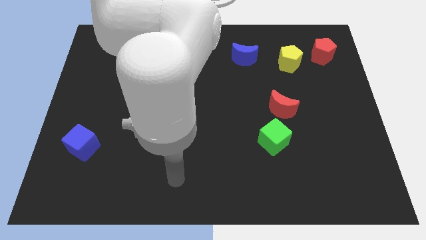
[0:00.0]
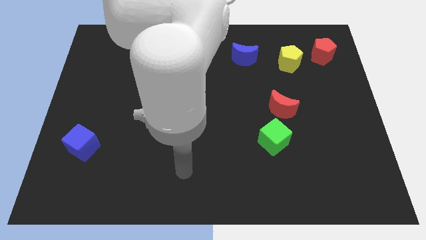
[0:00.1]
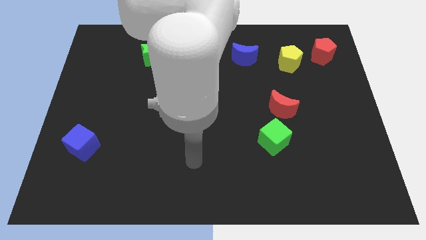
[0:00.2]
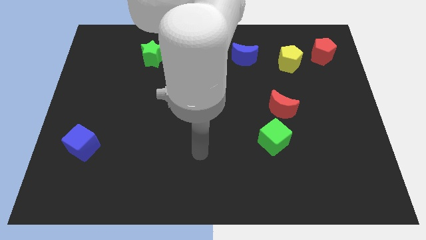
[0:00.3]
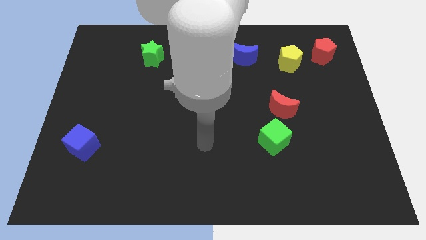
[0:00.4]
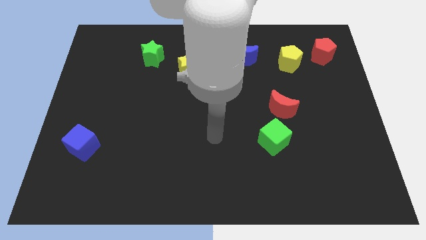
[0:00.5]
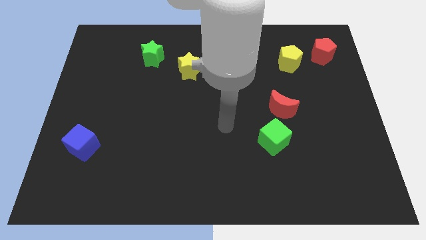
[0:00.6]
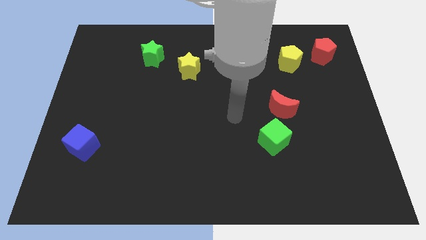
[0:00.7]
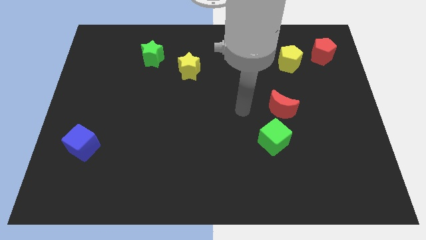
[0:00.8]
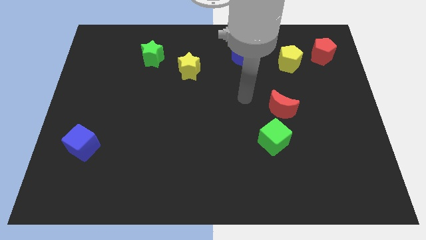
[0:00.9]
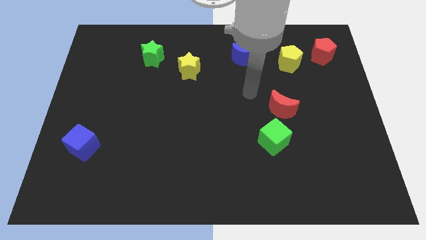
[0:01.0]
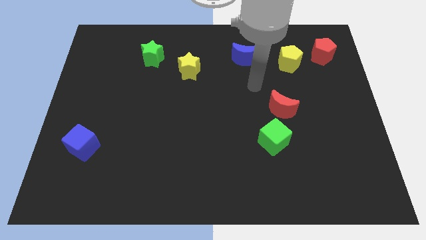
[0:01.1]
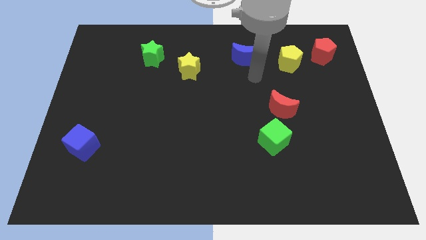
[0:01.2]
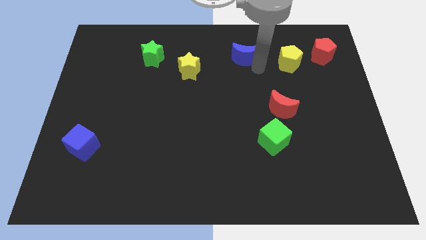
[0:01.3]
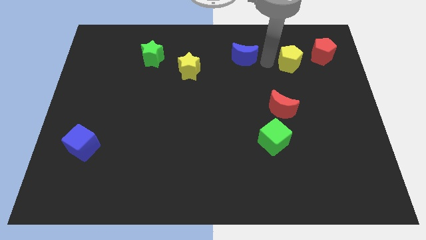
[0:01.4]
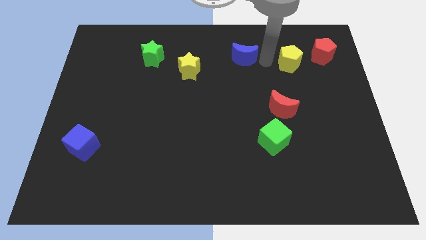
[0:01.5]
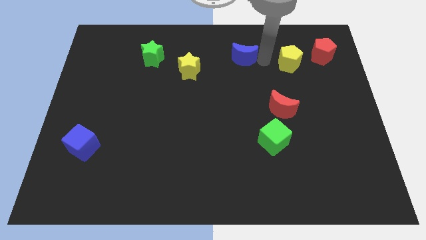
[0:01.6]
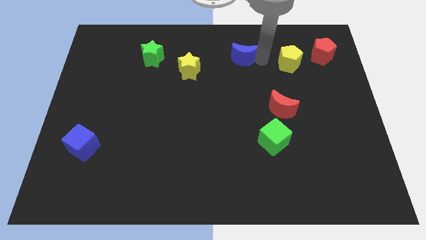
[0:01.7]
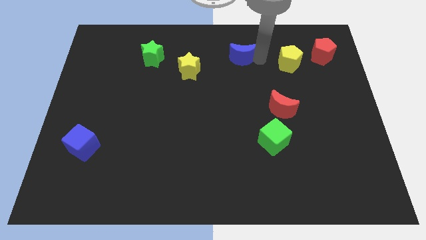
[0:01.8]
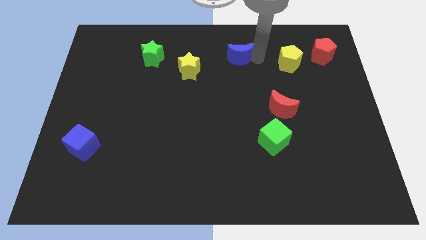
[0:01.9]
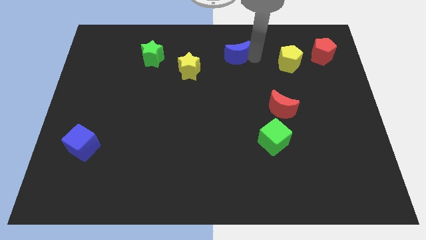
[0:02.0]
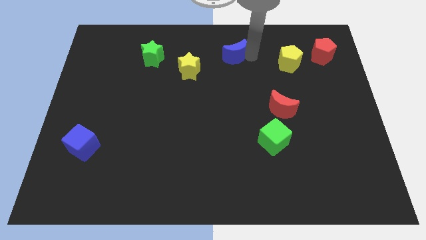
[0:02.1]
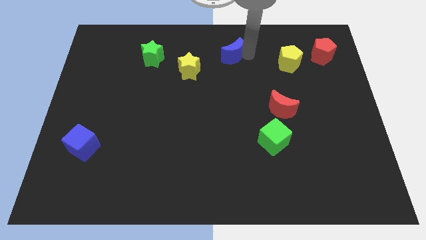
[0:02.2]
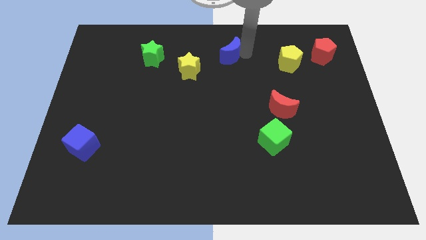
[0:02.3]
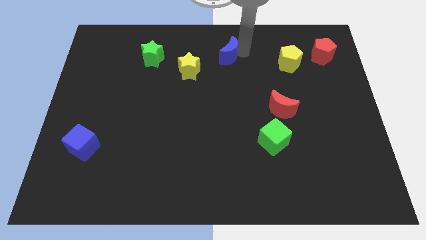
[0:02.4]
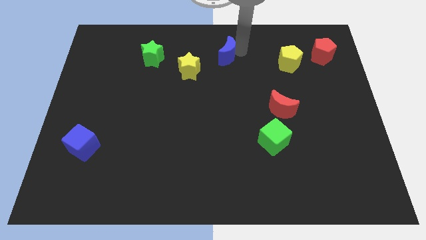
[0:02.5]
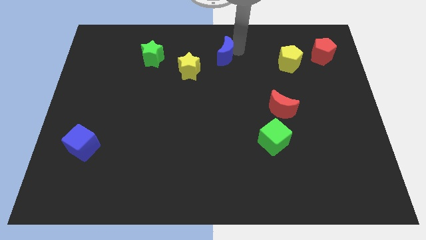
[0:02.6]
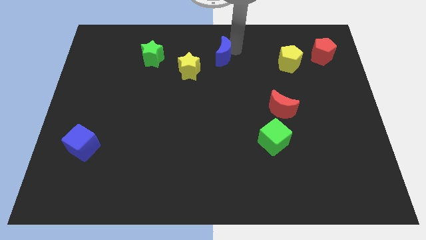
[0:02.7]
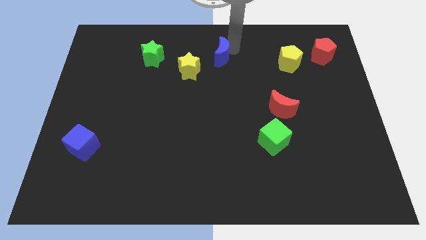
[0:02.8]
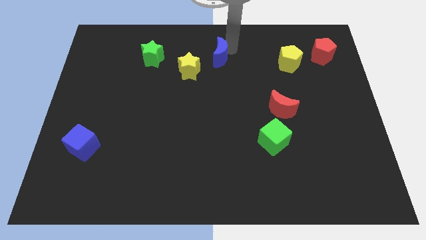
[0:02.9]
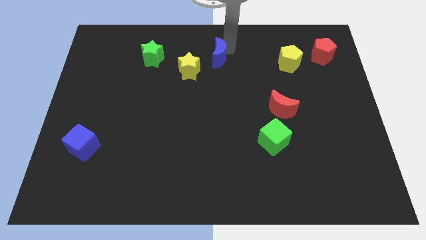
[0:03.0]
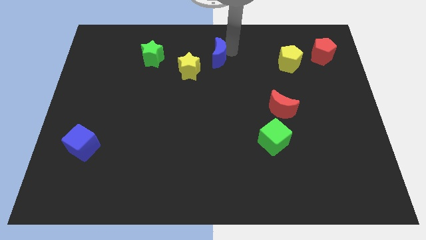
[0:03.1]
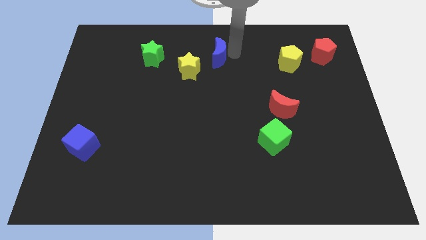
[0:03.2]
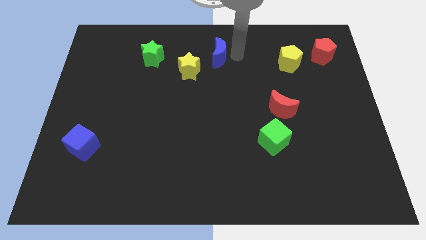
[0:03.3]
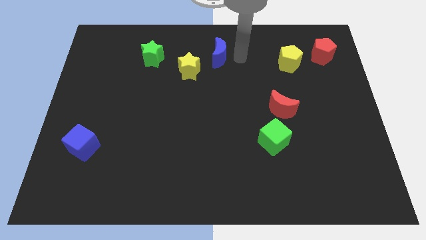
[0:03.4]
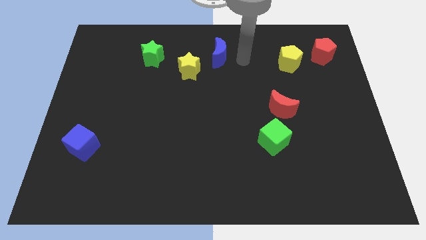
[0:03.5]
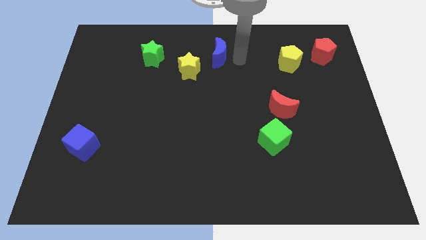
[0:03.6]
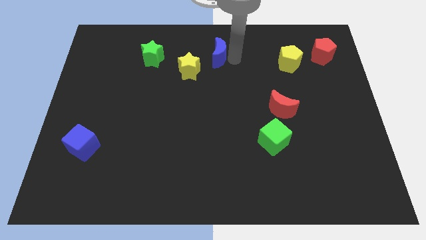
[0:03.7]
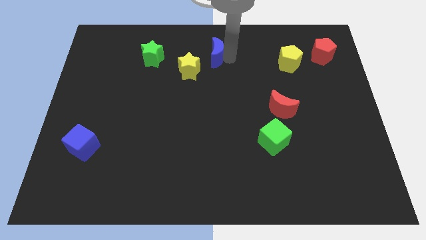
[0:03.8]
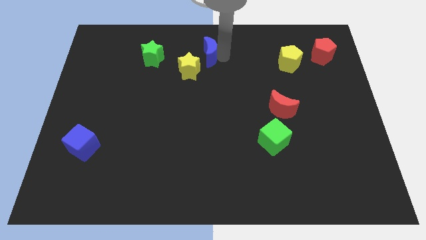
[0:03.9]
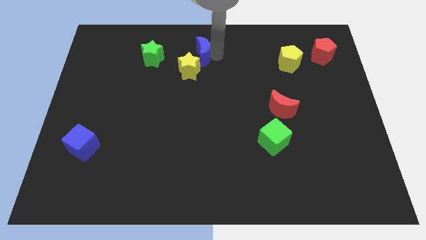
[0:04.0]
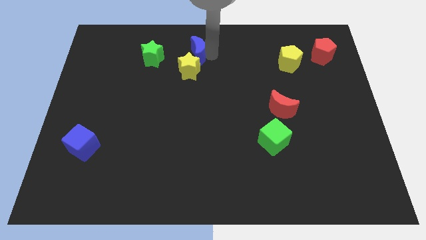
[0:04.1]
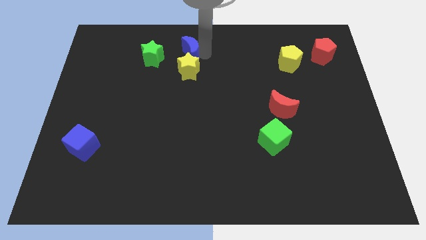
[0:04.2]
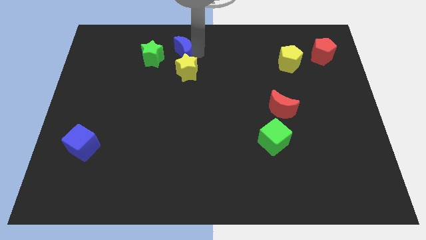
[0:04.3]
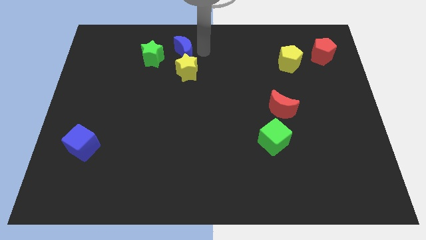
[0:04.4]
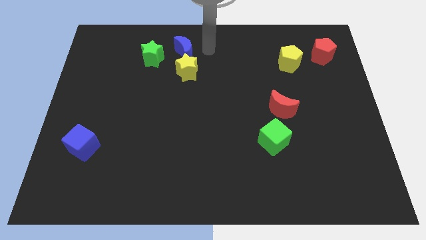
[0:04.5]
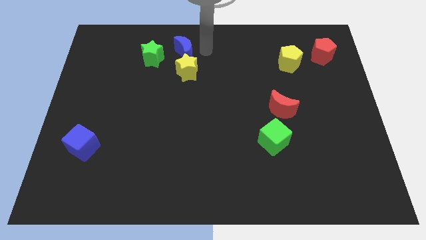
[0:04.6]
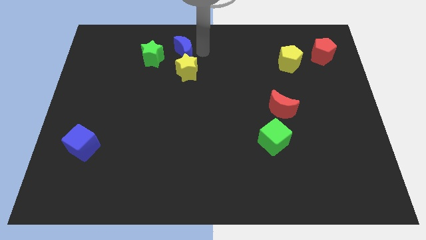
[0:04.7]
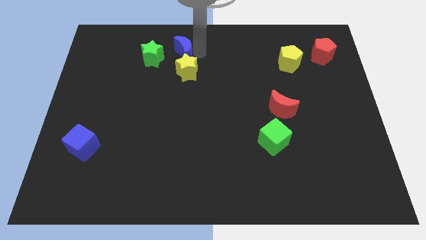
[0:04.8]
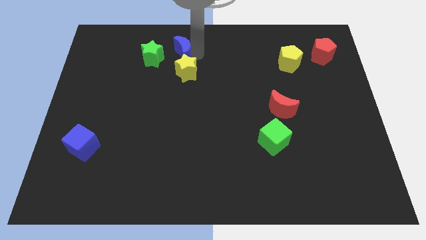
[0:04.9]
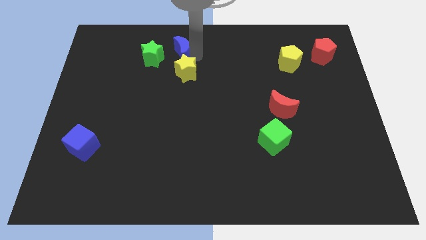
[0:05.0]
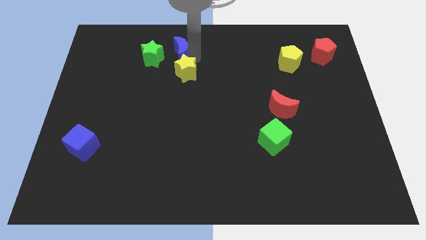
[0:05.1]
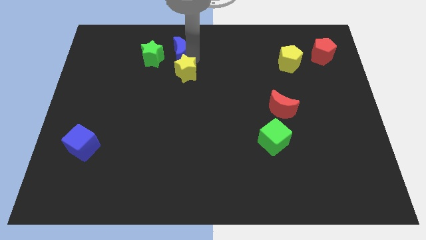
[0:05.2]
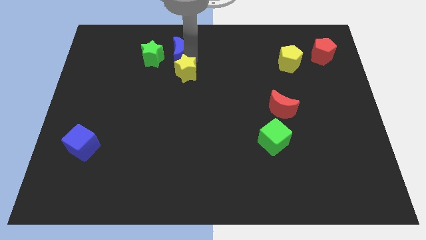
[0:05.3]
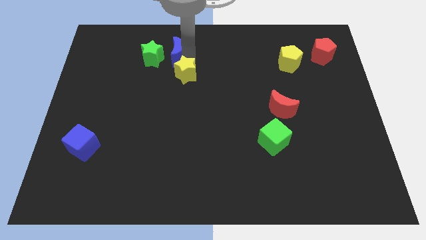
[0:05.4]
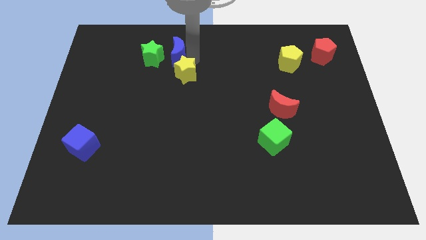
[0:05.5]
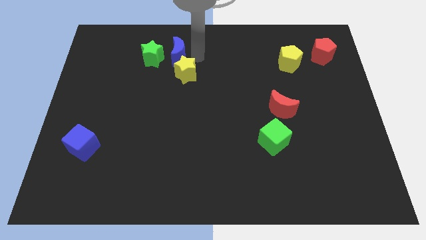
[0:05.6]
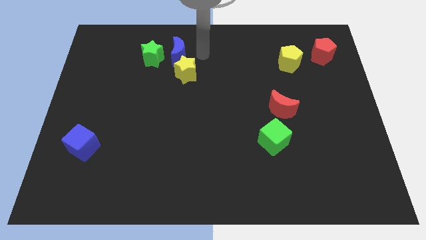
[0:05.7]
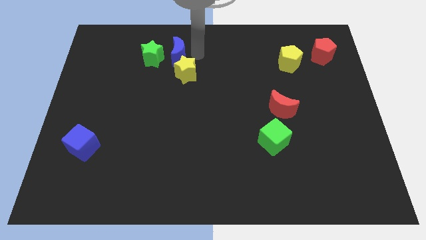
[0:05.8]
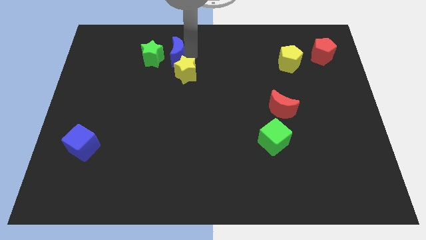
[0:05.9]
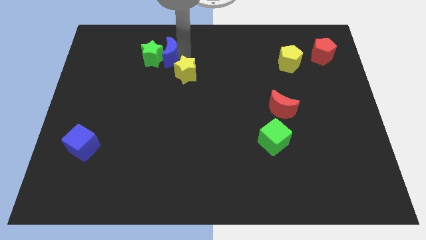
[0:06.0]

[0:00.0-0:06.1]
put the blue moon to the green star

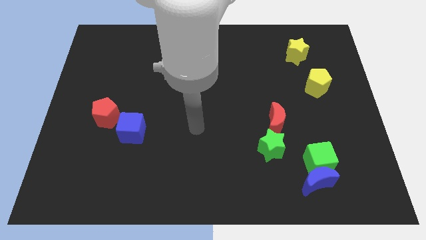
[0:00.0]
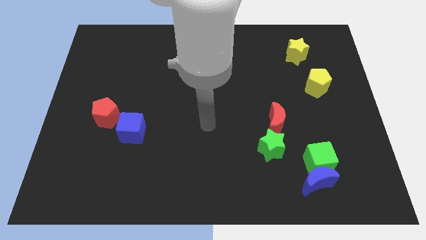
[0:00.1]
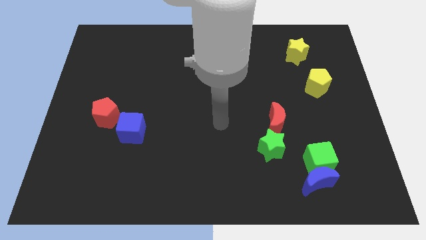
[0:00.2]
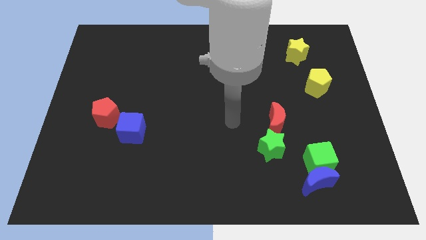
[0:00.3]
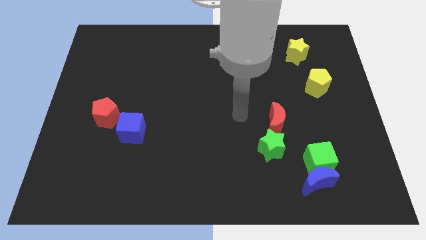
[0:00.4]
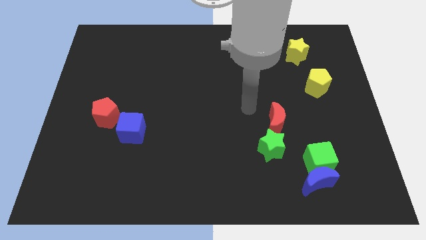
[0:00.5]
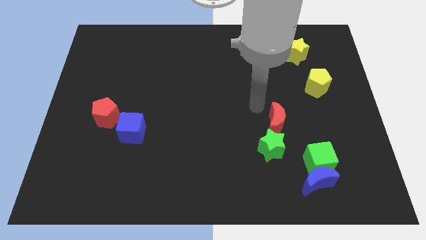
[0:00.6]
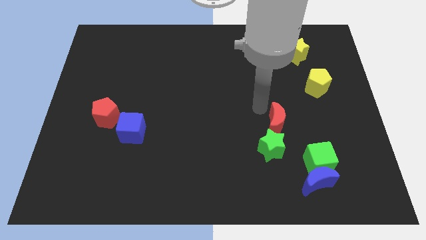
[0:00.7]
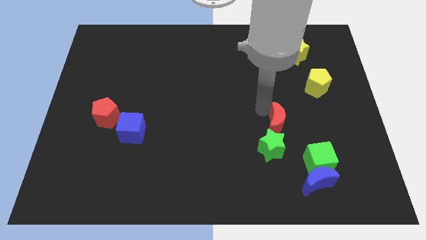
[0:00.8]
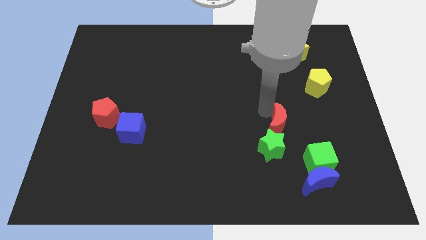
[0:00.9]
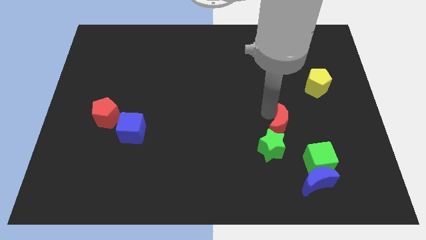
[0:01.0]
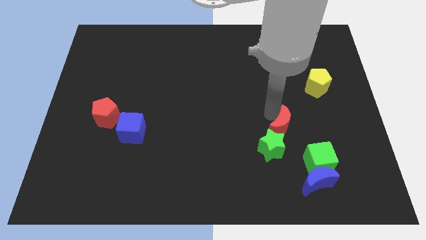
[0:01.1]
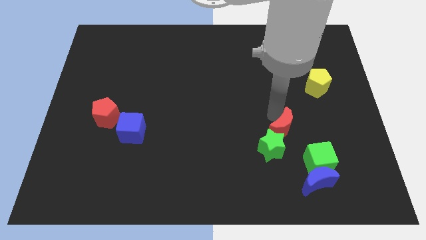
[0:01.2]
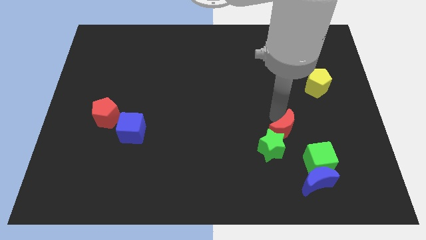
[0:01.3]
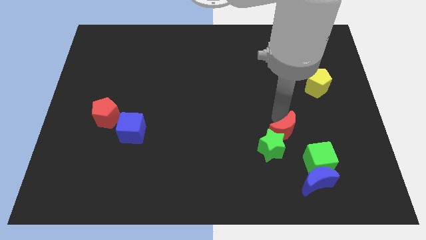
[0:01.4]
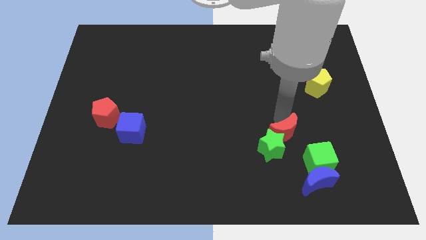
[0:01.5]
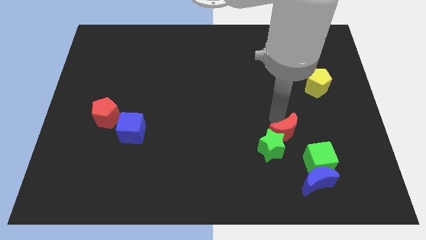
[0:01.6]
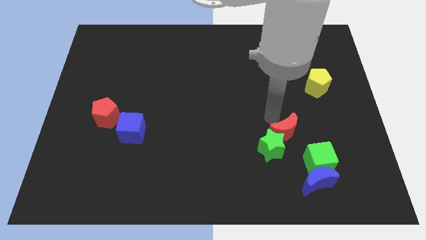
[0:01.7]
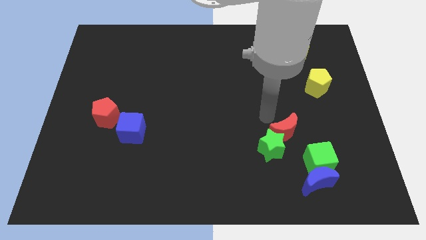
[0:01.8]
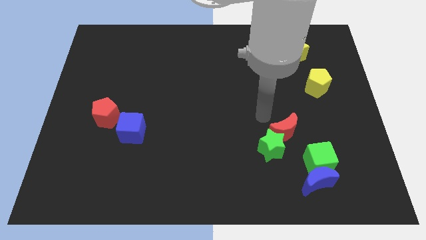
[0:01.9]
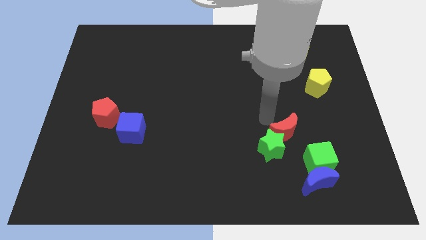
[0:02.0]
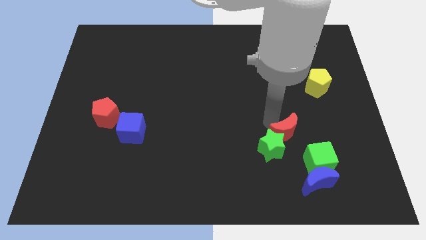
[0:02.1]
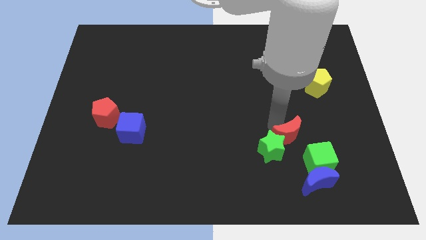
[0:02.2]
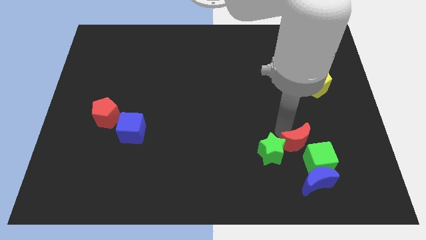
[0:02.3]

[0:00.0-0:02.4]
push the red moon to the green cube

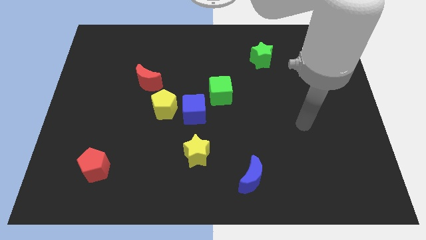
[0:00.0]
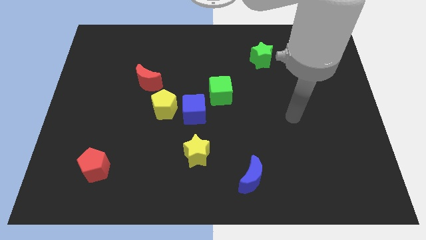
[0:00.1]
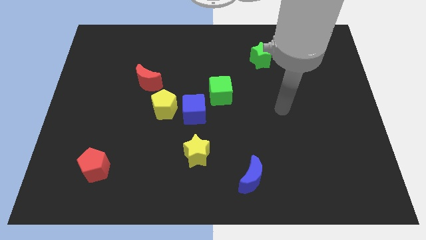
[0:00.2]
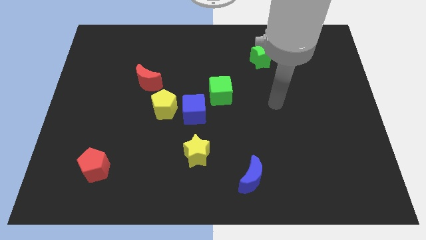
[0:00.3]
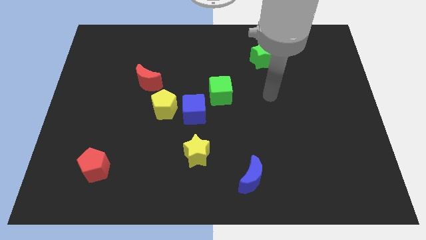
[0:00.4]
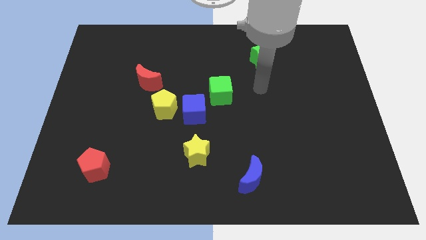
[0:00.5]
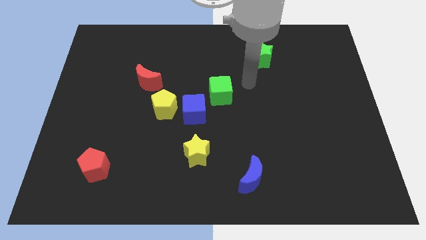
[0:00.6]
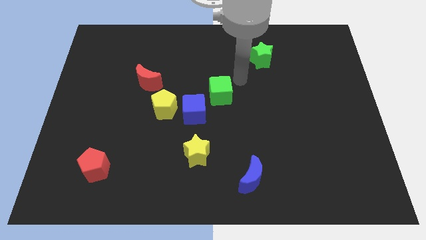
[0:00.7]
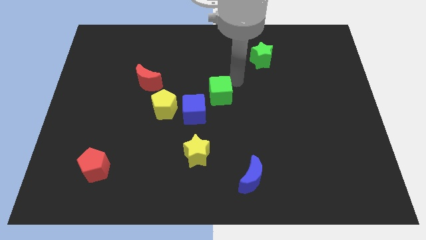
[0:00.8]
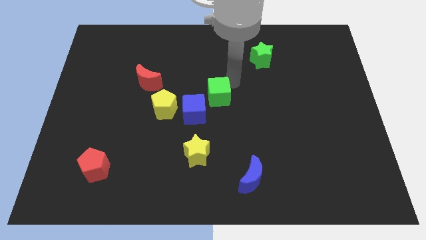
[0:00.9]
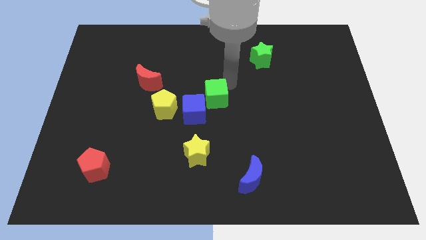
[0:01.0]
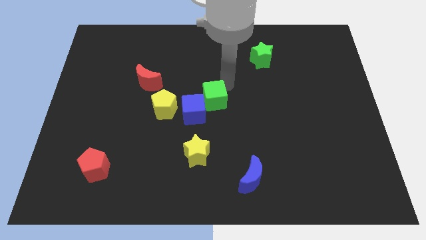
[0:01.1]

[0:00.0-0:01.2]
put the green cube next to the blue cube
